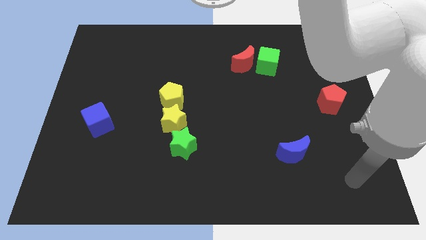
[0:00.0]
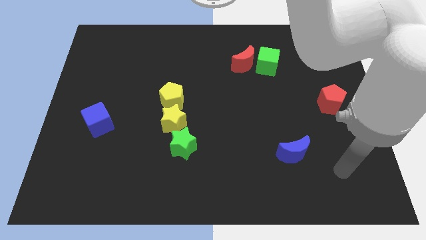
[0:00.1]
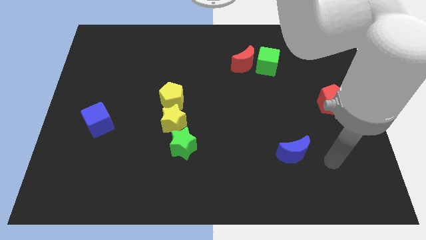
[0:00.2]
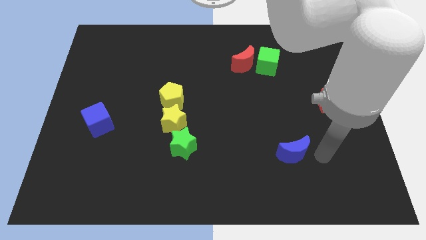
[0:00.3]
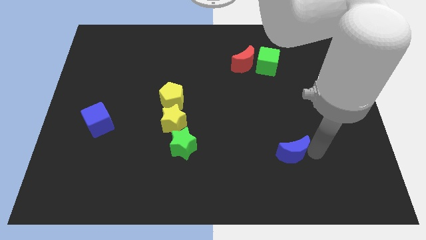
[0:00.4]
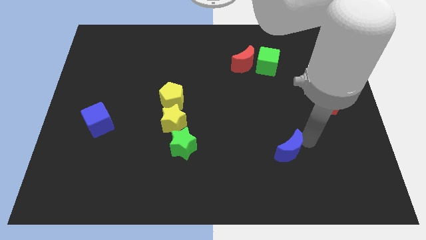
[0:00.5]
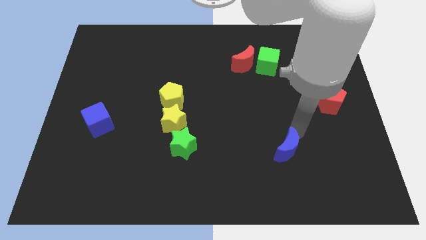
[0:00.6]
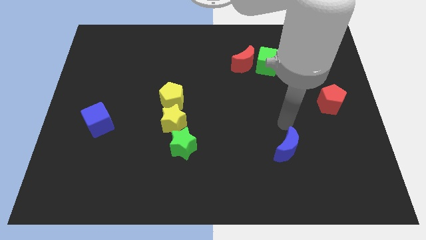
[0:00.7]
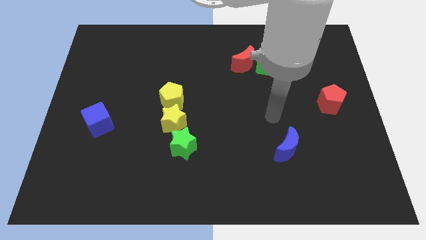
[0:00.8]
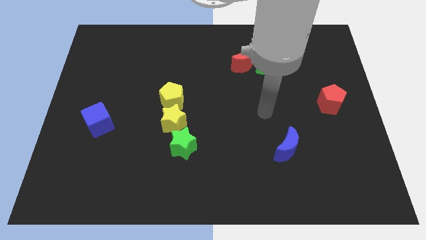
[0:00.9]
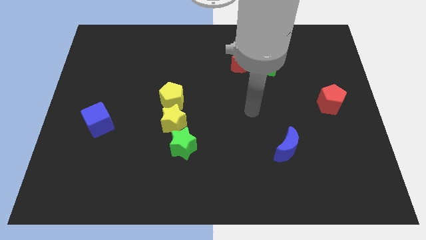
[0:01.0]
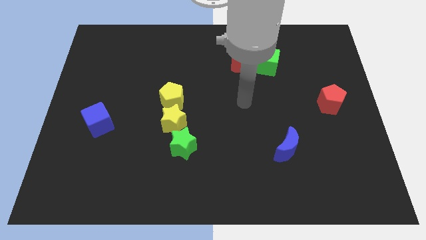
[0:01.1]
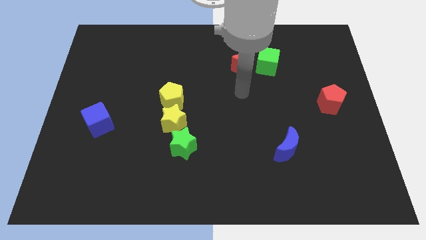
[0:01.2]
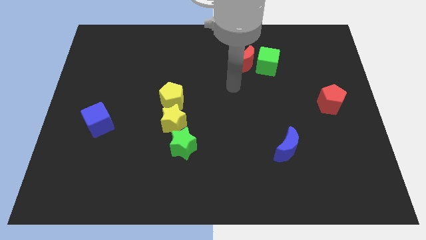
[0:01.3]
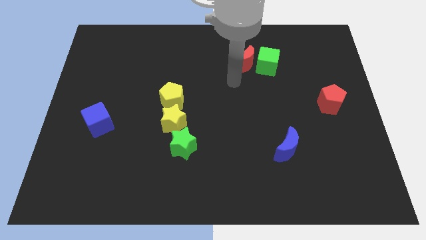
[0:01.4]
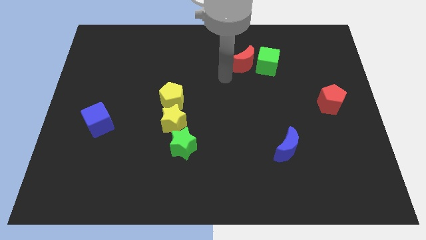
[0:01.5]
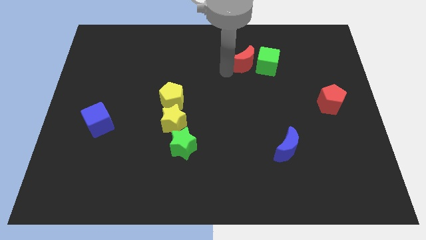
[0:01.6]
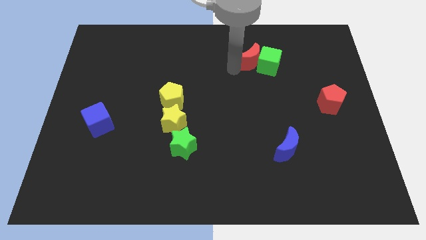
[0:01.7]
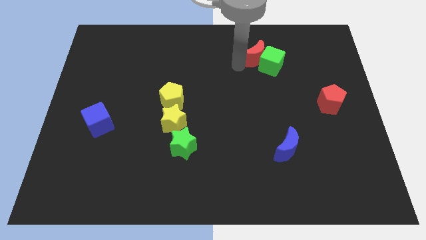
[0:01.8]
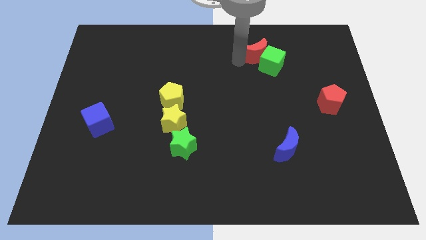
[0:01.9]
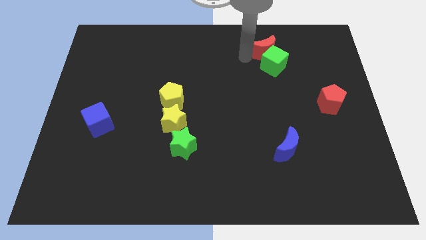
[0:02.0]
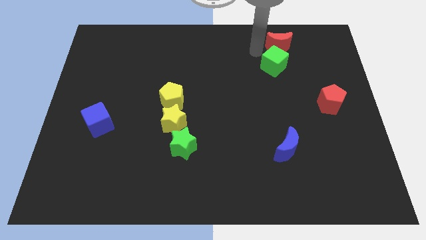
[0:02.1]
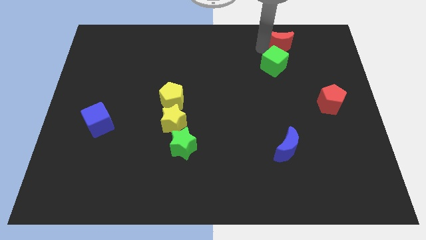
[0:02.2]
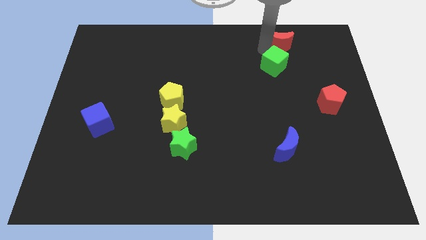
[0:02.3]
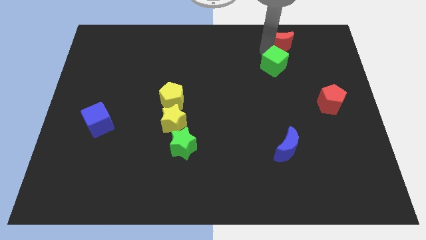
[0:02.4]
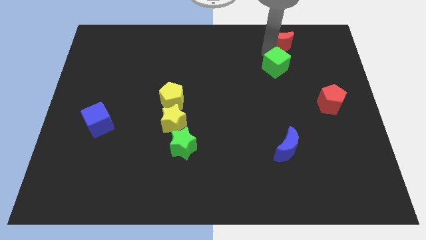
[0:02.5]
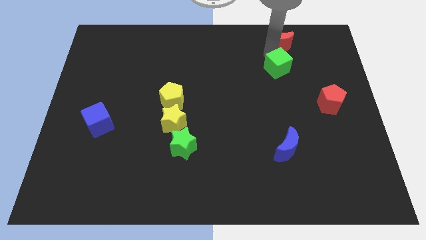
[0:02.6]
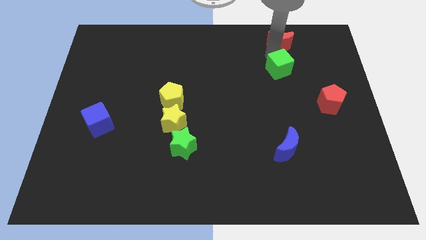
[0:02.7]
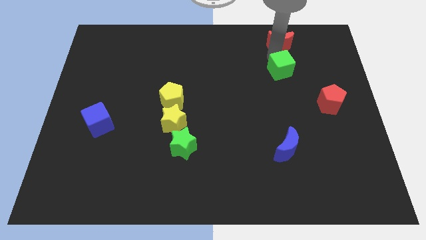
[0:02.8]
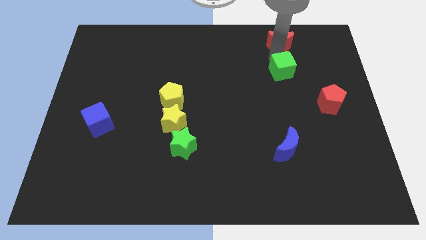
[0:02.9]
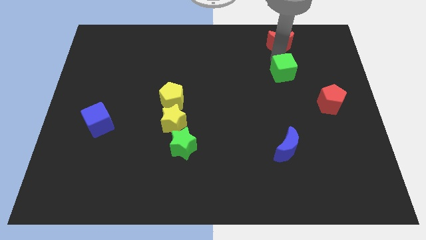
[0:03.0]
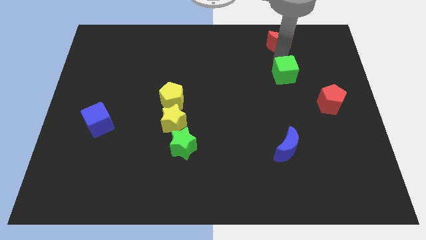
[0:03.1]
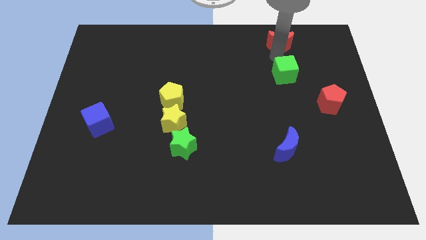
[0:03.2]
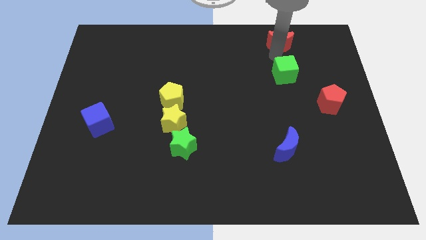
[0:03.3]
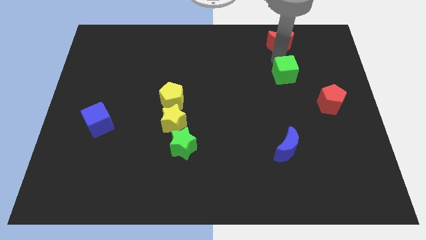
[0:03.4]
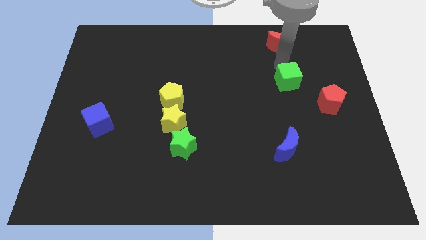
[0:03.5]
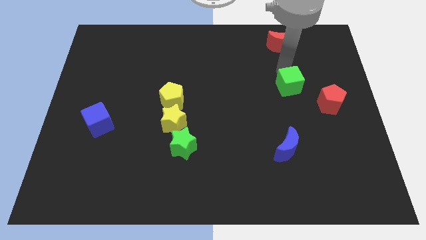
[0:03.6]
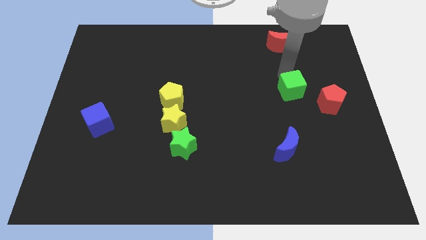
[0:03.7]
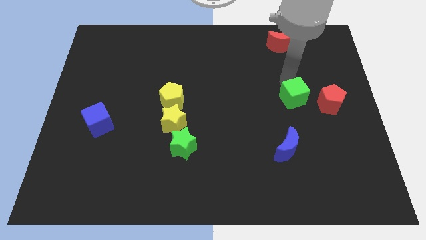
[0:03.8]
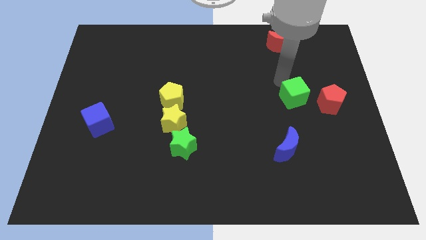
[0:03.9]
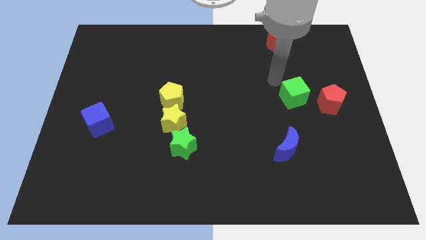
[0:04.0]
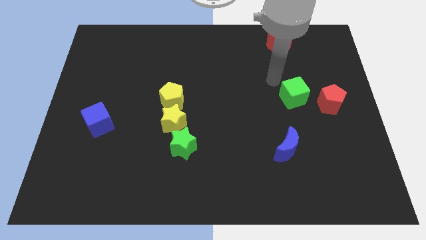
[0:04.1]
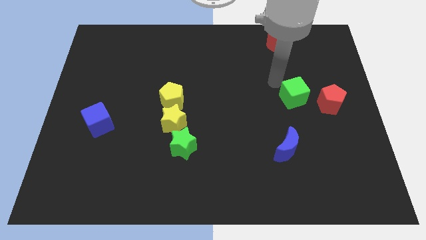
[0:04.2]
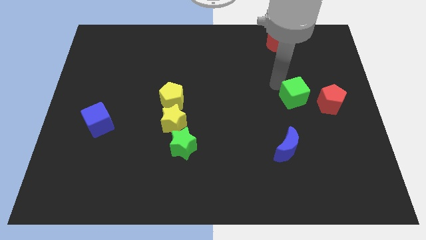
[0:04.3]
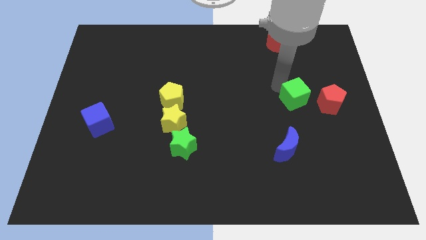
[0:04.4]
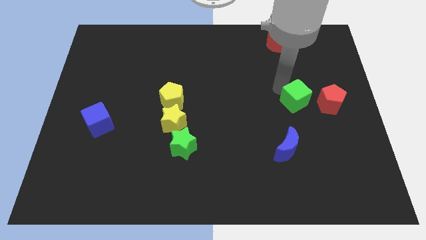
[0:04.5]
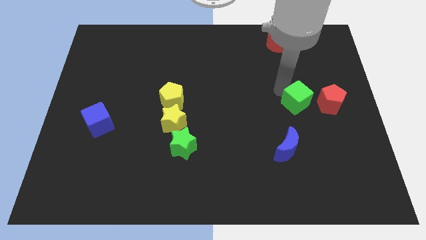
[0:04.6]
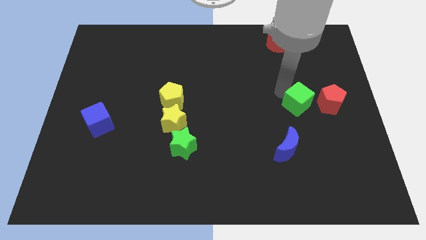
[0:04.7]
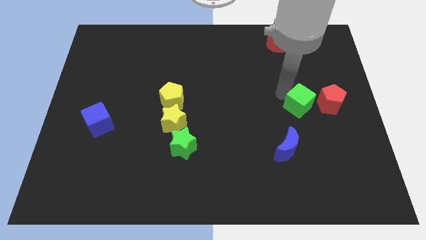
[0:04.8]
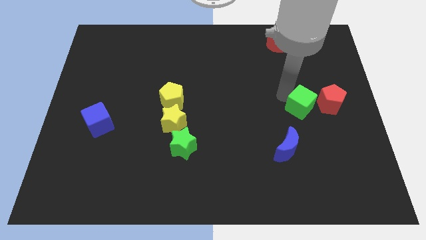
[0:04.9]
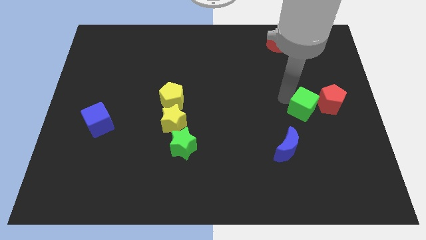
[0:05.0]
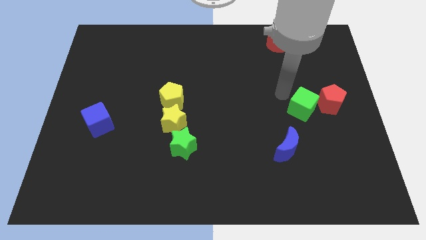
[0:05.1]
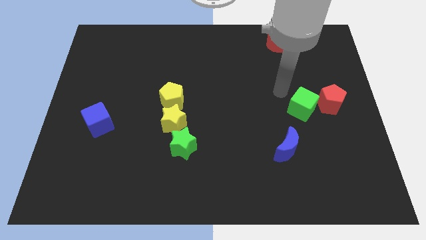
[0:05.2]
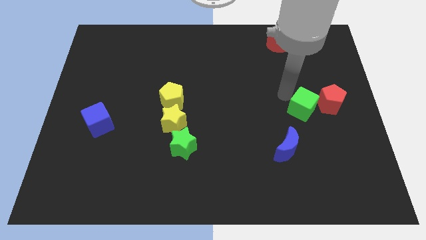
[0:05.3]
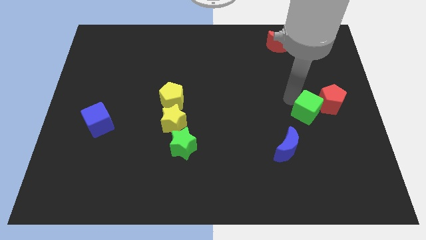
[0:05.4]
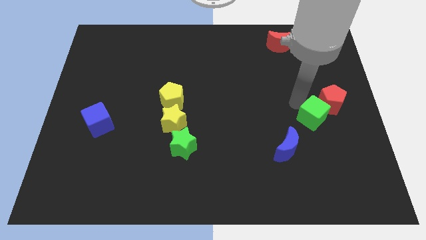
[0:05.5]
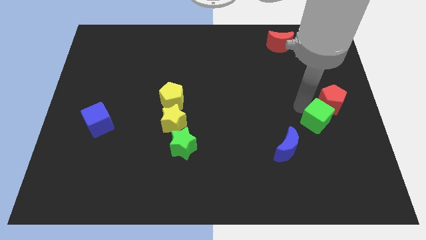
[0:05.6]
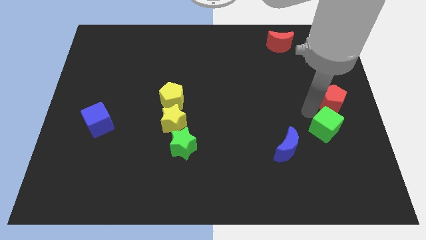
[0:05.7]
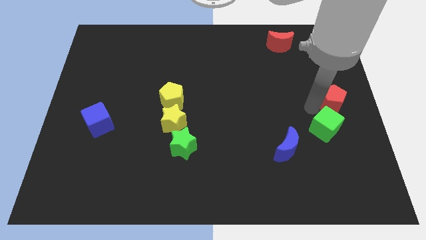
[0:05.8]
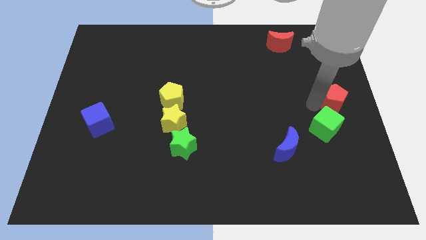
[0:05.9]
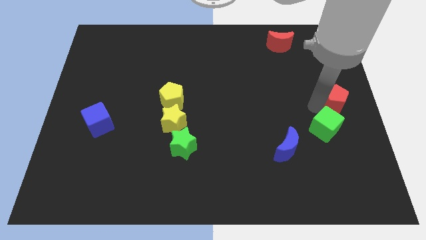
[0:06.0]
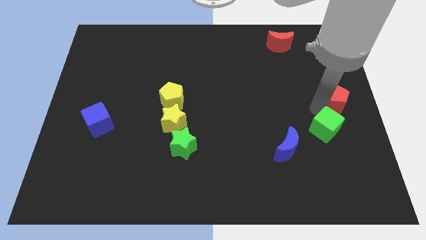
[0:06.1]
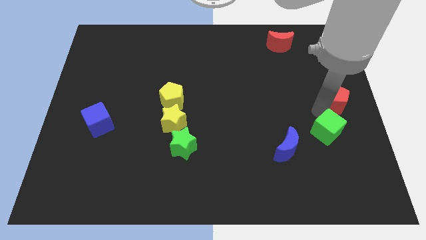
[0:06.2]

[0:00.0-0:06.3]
slide the green cube right of the blue moon

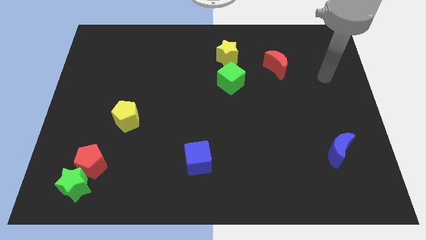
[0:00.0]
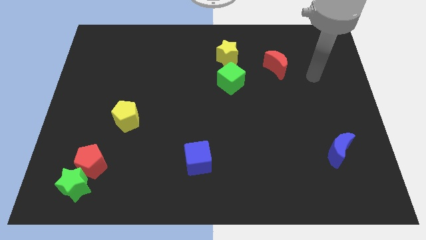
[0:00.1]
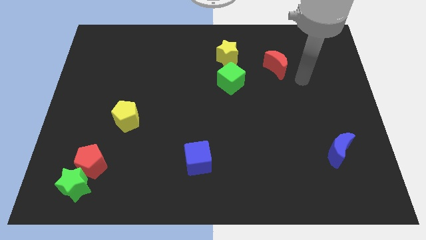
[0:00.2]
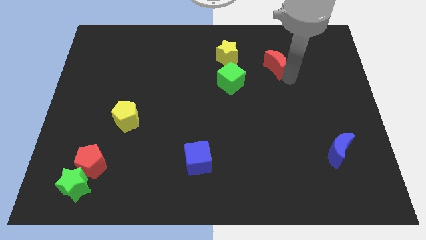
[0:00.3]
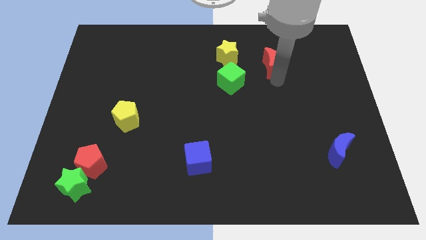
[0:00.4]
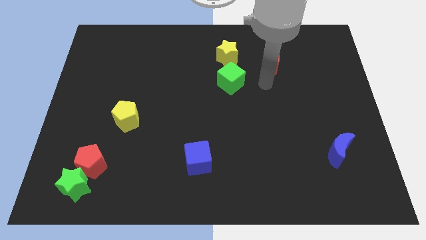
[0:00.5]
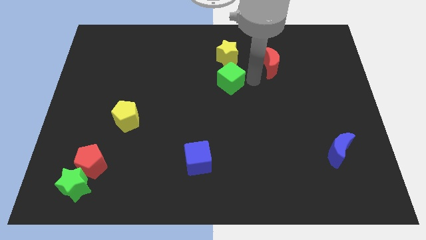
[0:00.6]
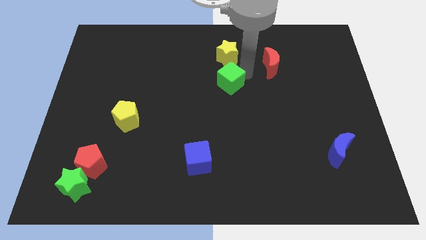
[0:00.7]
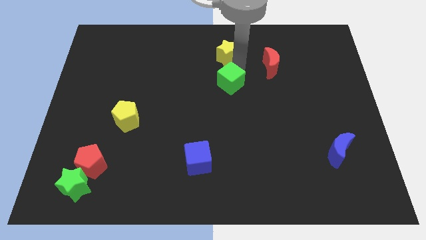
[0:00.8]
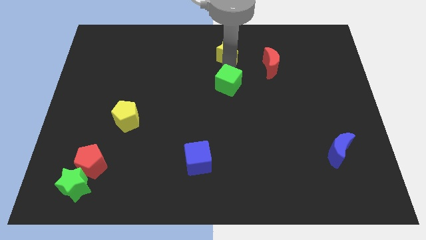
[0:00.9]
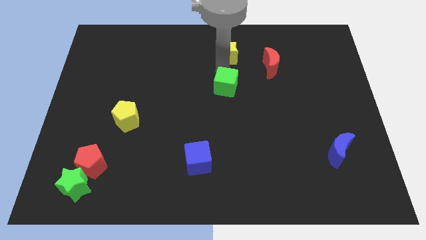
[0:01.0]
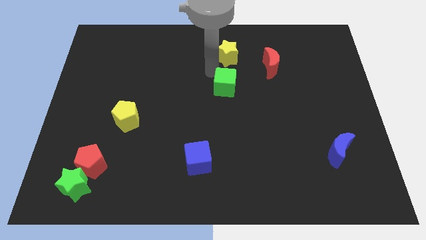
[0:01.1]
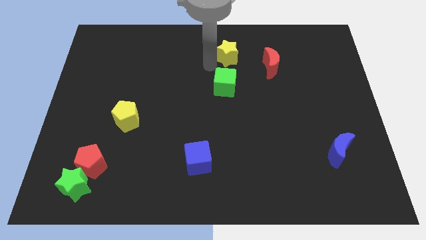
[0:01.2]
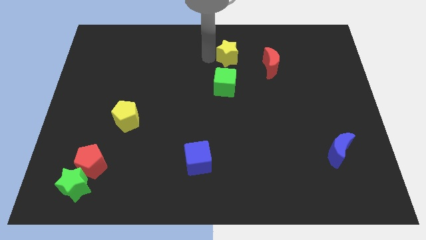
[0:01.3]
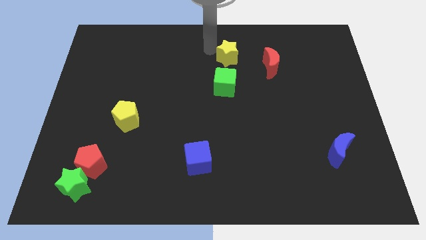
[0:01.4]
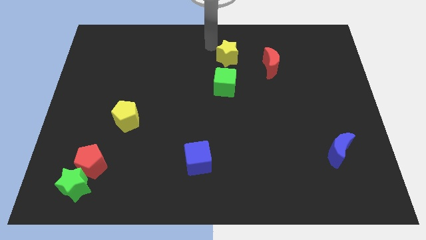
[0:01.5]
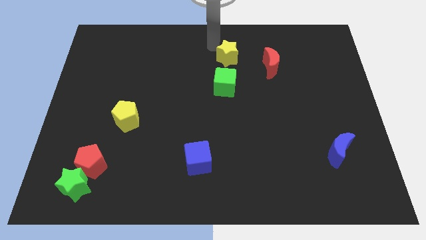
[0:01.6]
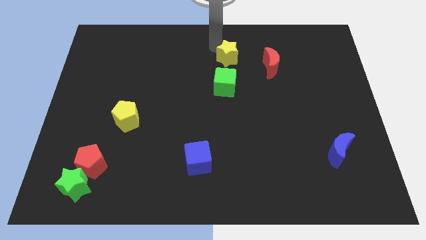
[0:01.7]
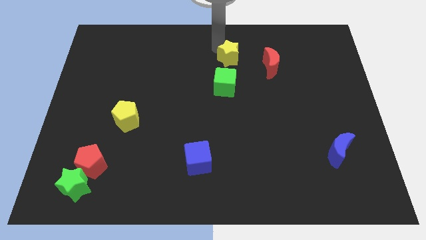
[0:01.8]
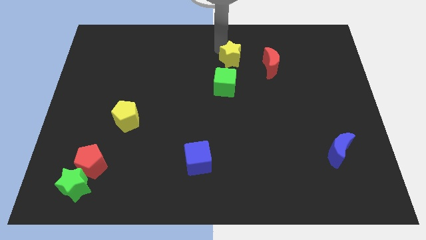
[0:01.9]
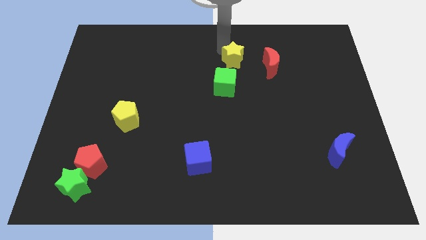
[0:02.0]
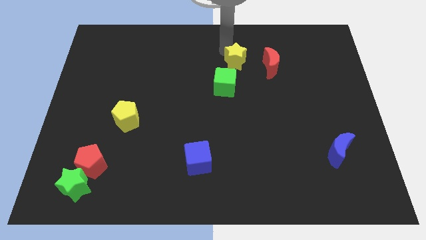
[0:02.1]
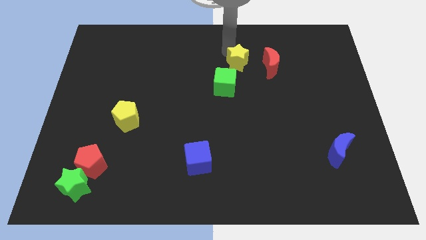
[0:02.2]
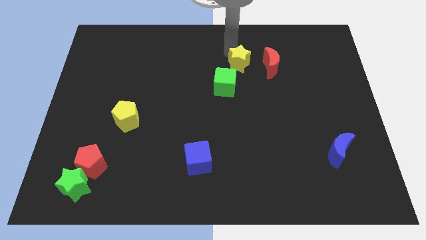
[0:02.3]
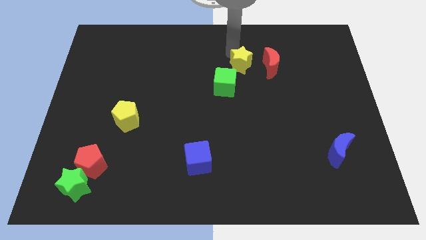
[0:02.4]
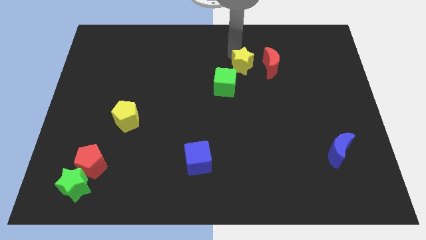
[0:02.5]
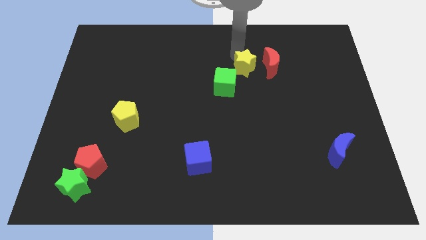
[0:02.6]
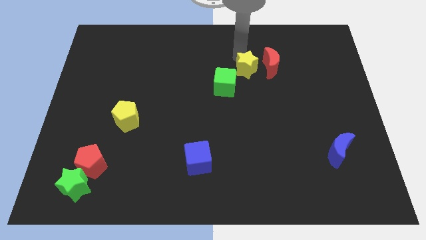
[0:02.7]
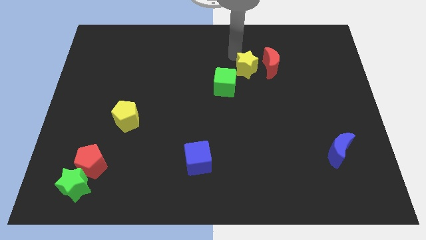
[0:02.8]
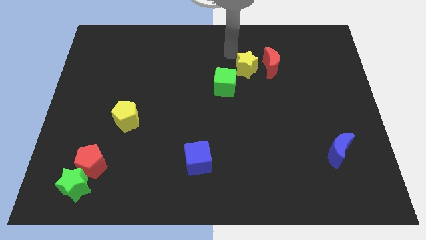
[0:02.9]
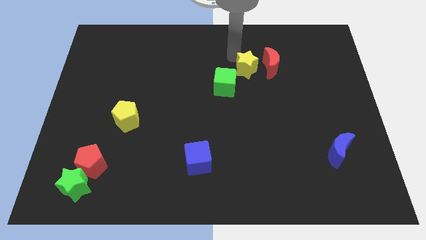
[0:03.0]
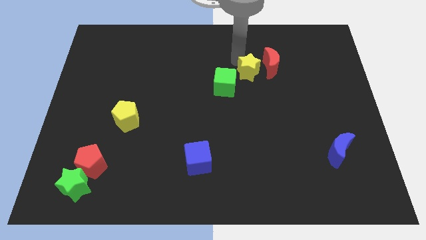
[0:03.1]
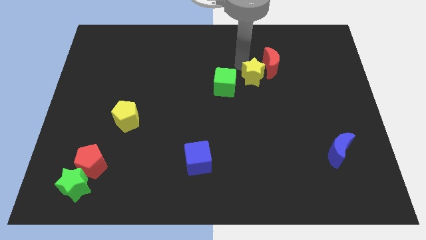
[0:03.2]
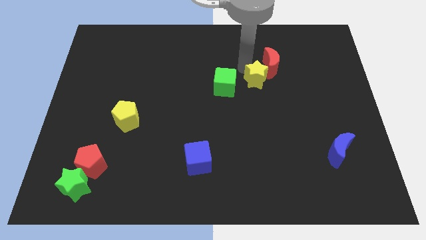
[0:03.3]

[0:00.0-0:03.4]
move the yellow star below the red moon
